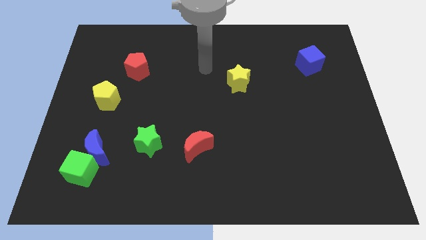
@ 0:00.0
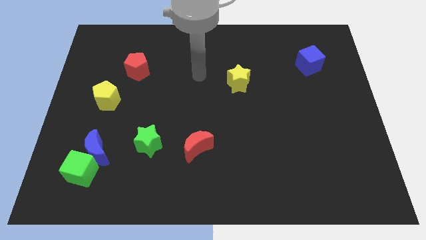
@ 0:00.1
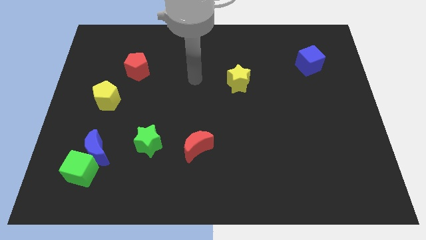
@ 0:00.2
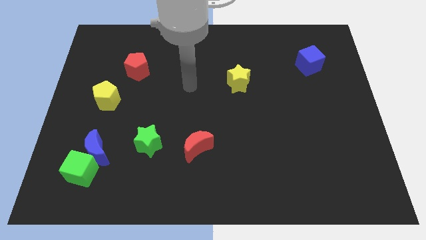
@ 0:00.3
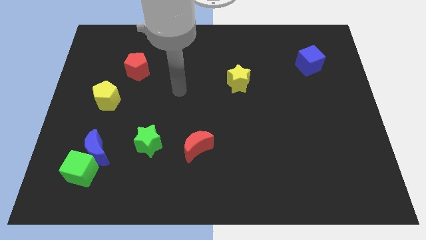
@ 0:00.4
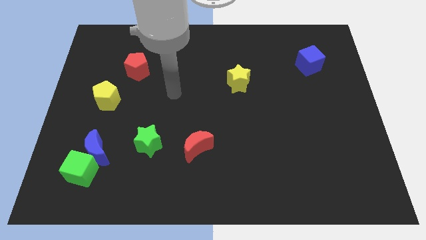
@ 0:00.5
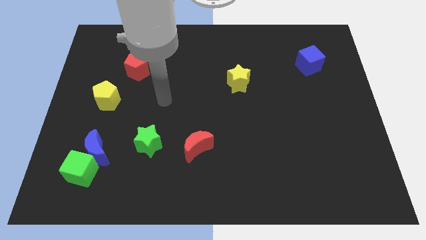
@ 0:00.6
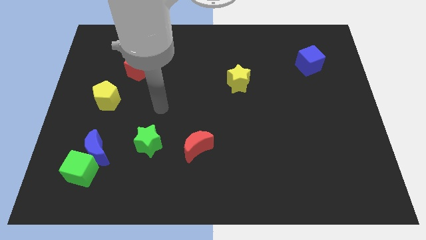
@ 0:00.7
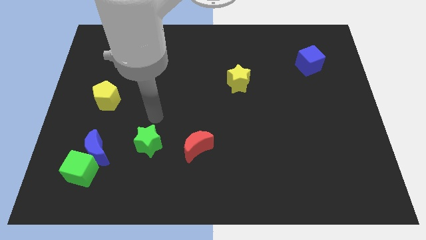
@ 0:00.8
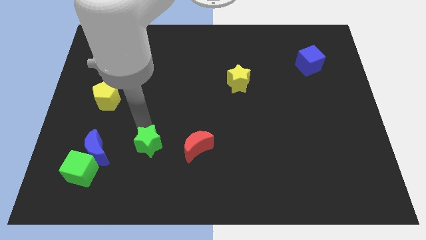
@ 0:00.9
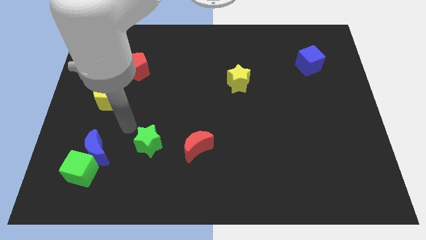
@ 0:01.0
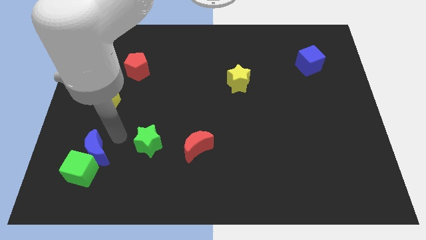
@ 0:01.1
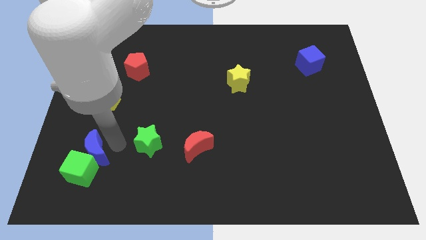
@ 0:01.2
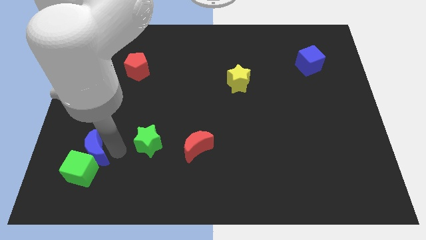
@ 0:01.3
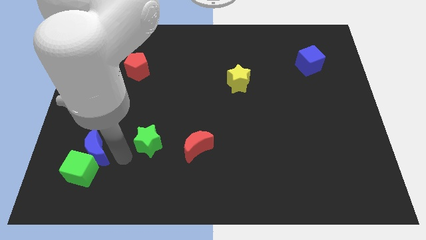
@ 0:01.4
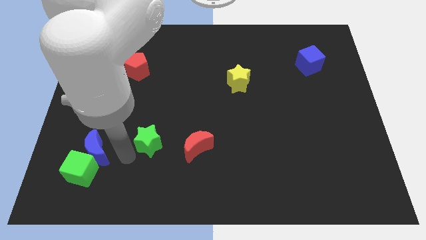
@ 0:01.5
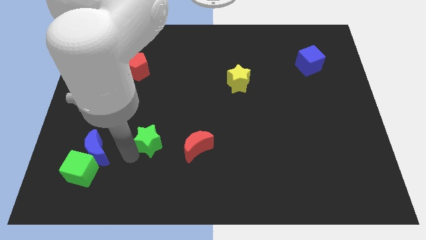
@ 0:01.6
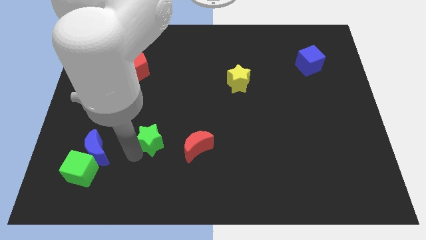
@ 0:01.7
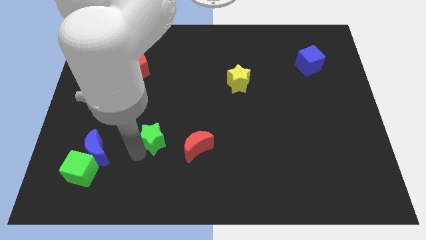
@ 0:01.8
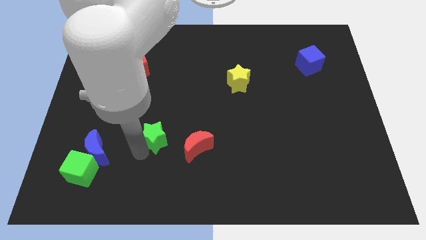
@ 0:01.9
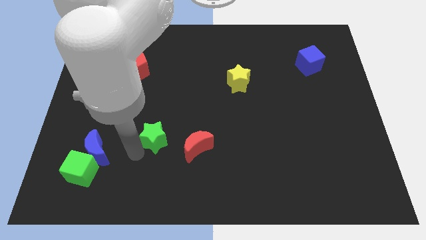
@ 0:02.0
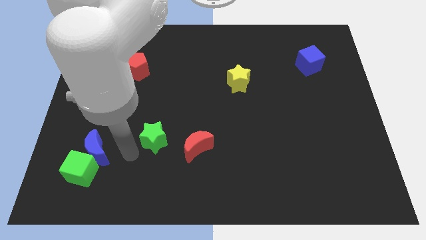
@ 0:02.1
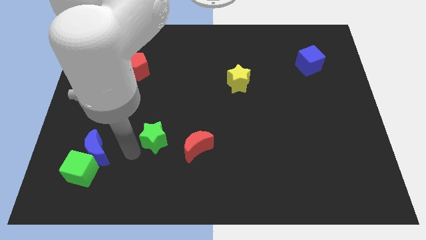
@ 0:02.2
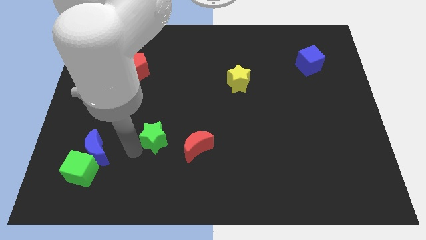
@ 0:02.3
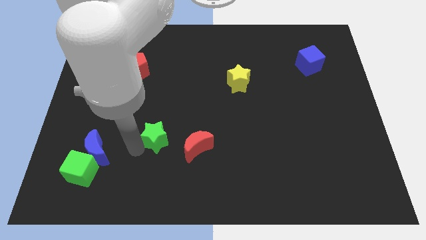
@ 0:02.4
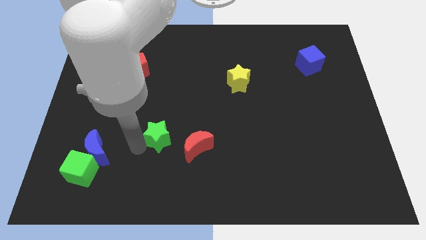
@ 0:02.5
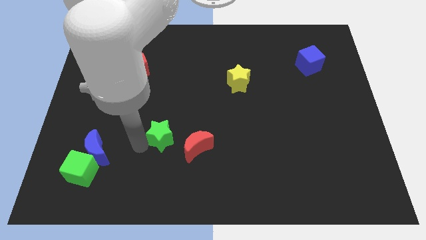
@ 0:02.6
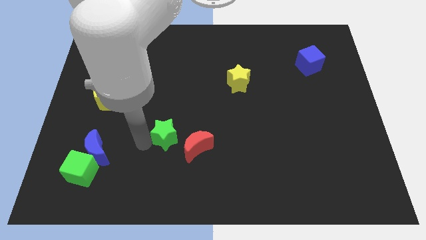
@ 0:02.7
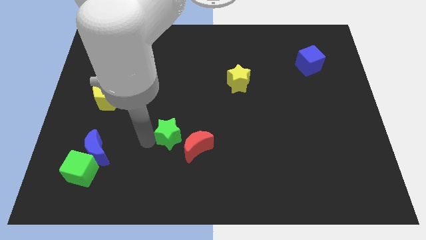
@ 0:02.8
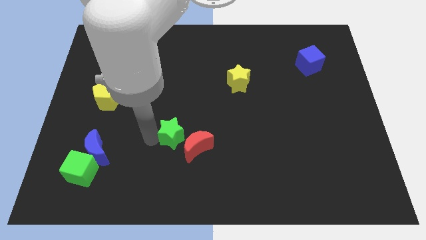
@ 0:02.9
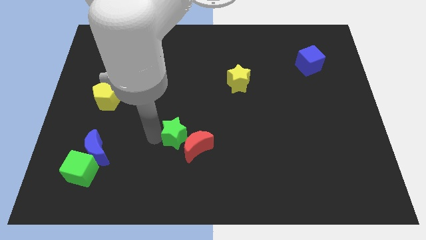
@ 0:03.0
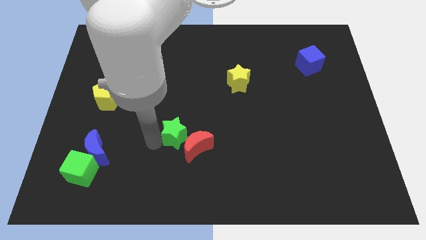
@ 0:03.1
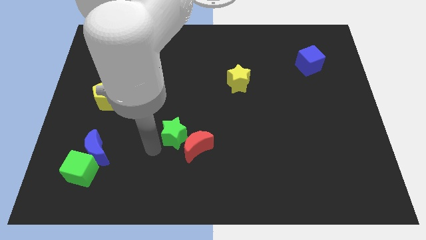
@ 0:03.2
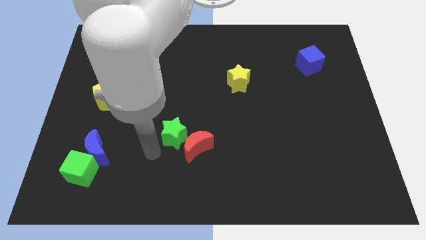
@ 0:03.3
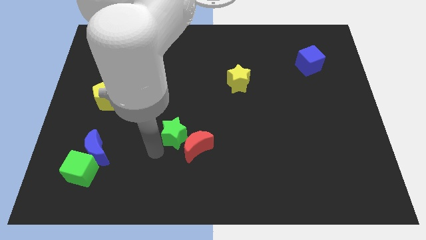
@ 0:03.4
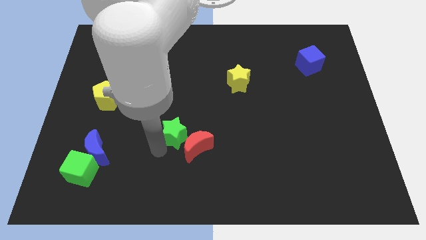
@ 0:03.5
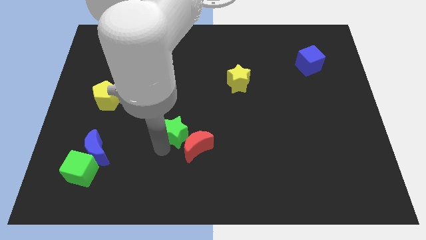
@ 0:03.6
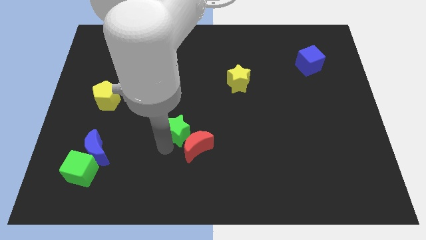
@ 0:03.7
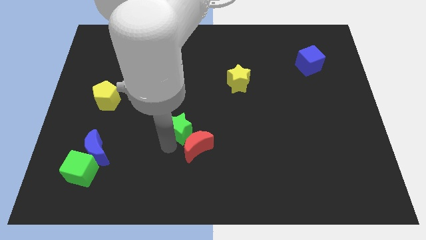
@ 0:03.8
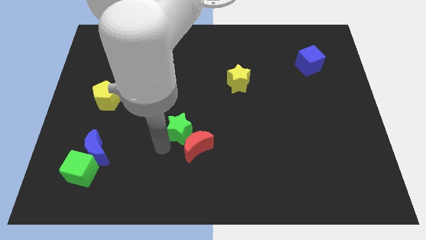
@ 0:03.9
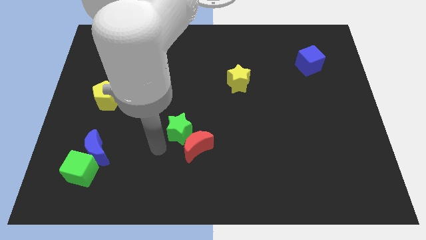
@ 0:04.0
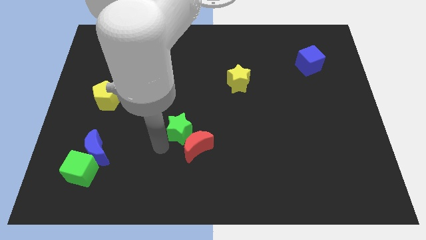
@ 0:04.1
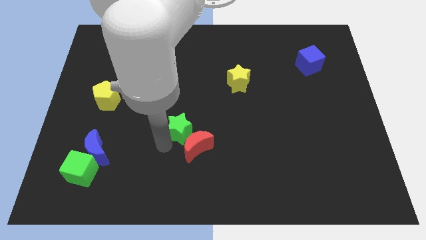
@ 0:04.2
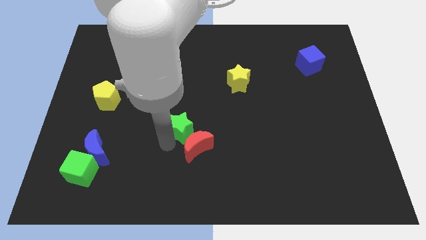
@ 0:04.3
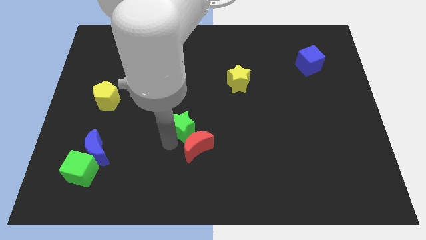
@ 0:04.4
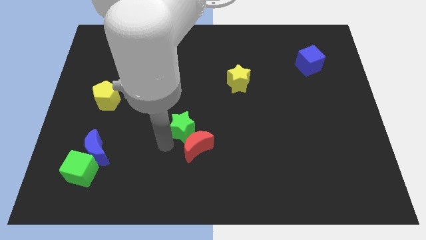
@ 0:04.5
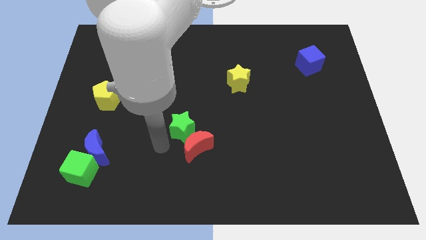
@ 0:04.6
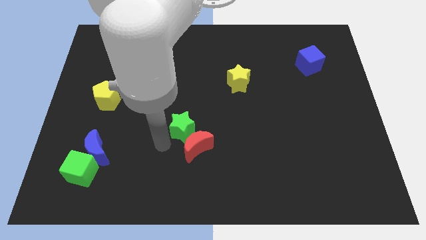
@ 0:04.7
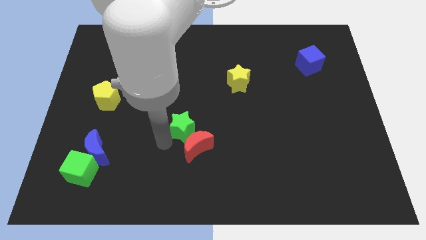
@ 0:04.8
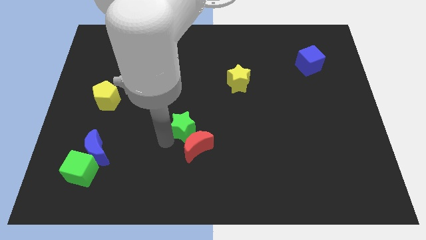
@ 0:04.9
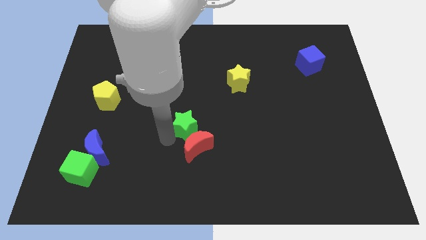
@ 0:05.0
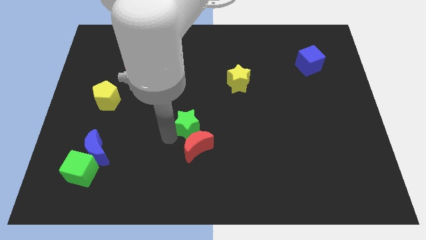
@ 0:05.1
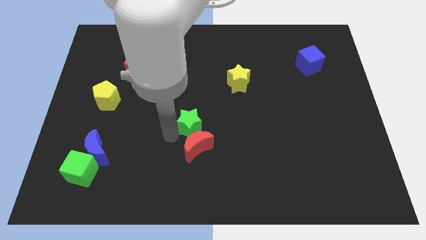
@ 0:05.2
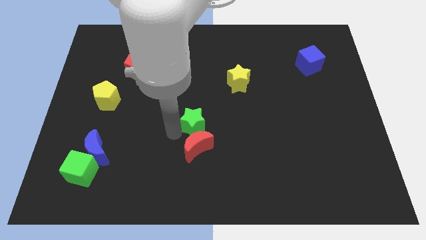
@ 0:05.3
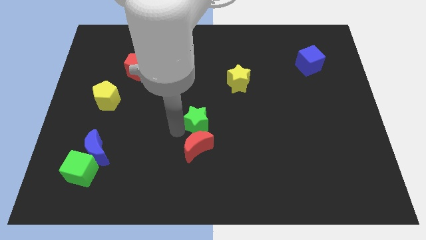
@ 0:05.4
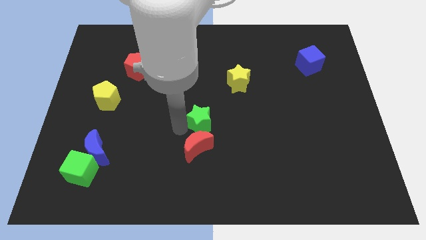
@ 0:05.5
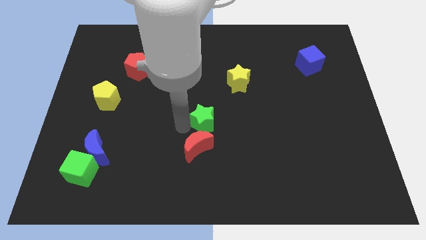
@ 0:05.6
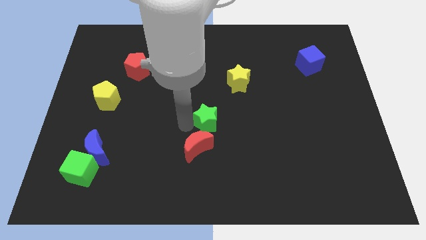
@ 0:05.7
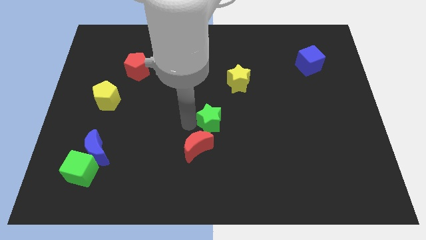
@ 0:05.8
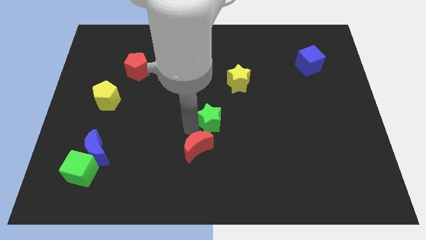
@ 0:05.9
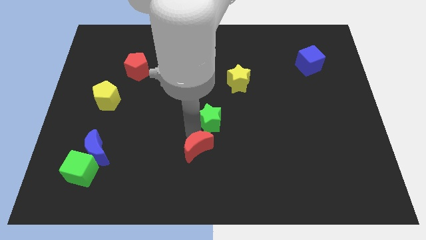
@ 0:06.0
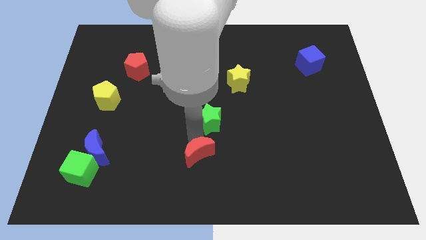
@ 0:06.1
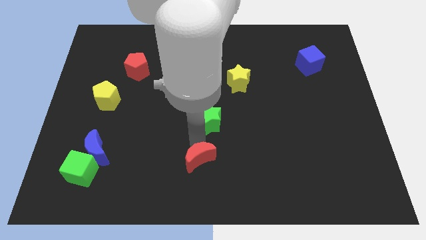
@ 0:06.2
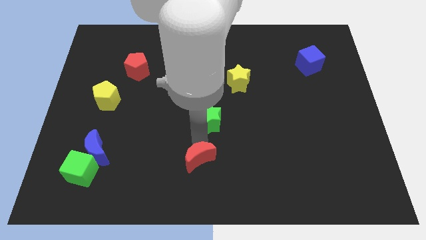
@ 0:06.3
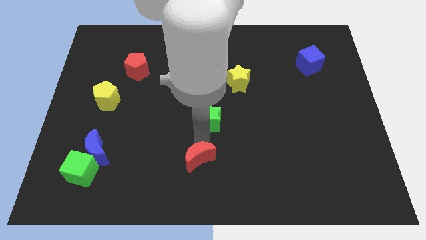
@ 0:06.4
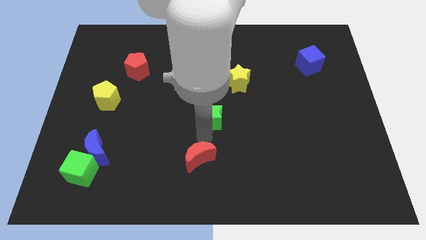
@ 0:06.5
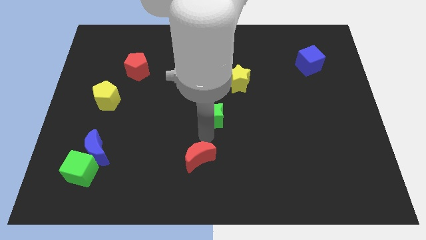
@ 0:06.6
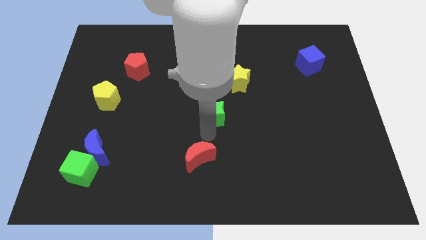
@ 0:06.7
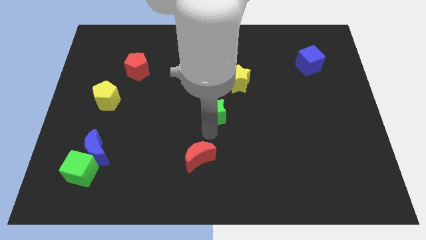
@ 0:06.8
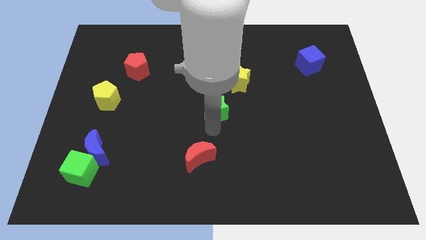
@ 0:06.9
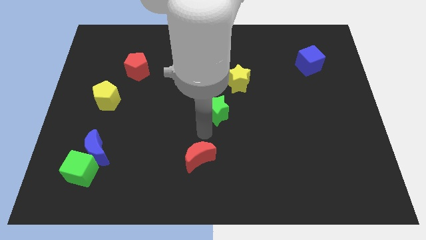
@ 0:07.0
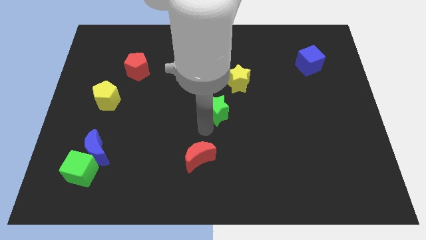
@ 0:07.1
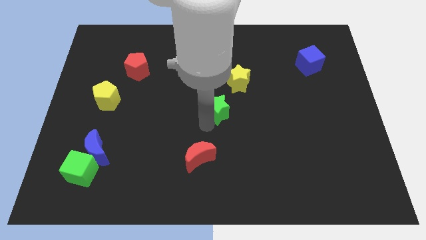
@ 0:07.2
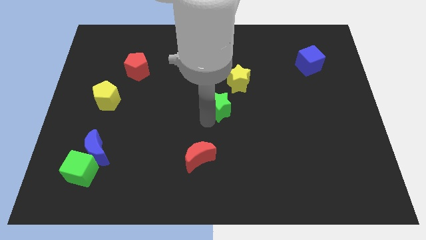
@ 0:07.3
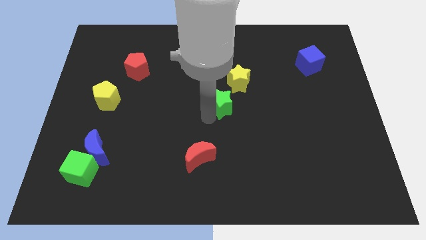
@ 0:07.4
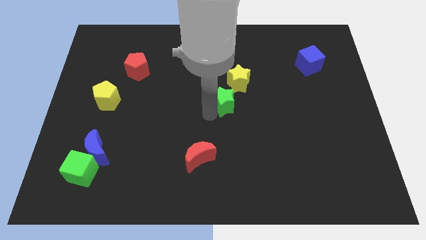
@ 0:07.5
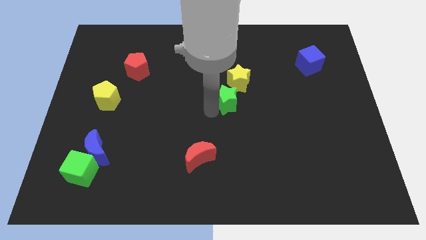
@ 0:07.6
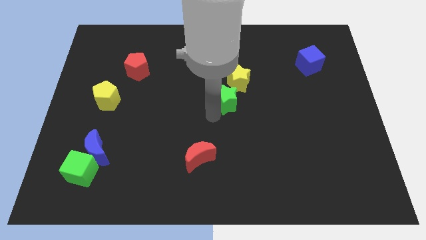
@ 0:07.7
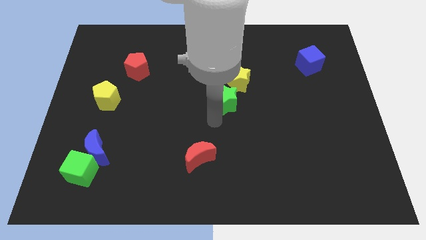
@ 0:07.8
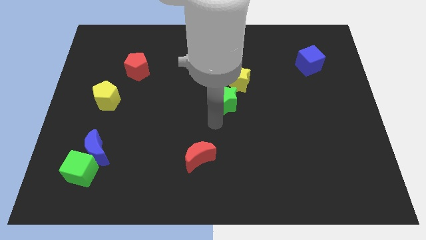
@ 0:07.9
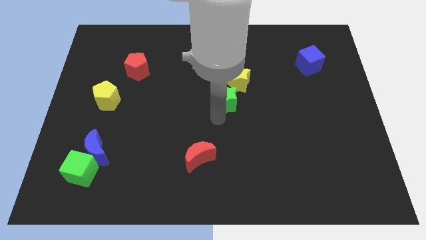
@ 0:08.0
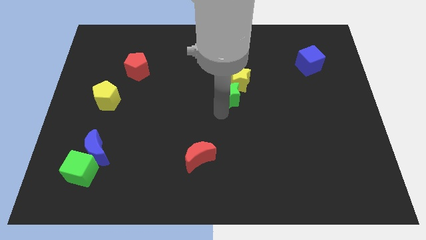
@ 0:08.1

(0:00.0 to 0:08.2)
move the green star next to the yellow star
